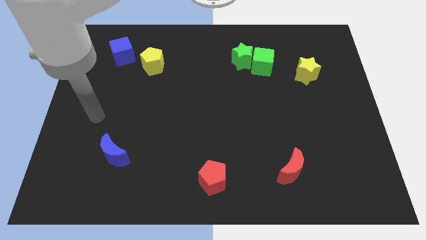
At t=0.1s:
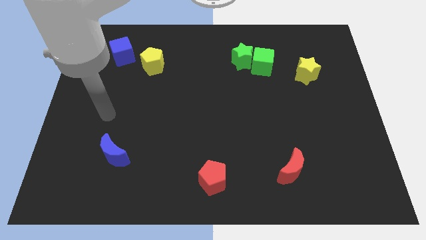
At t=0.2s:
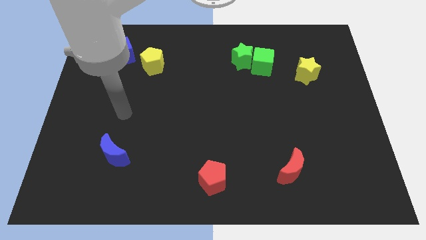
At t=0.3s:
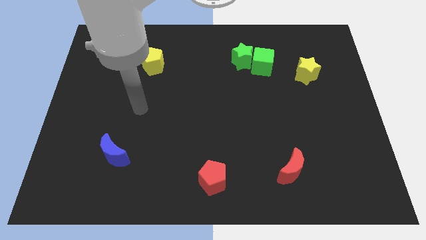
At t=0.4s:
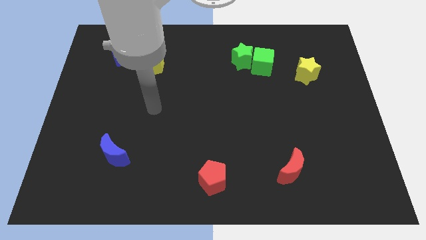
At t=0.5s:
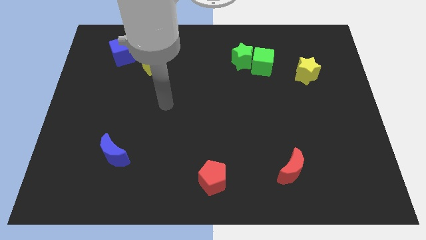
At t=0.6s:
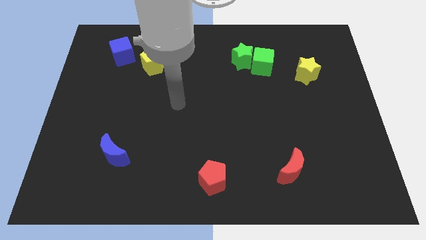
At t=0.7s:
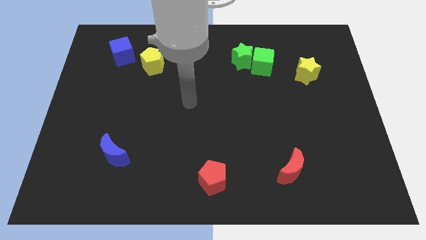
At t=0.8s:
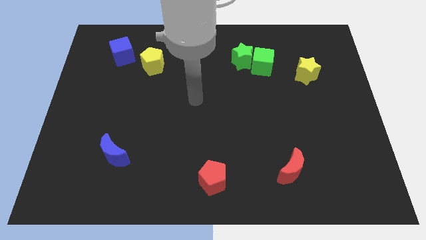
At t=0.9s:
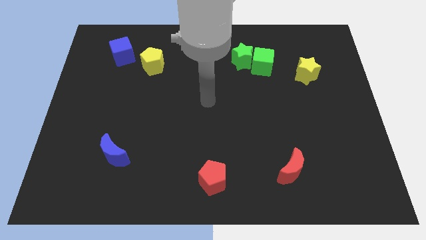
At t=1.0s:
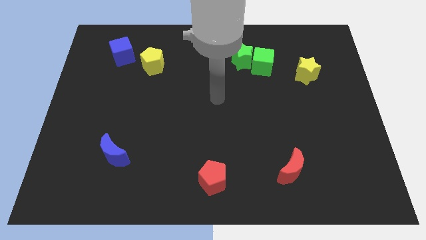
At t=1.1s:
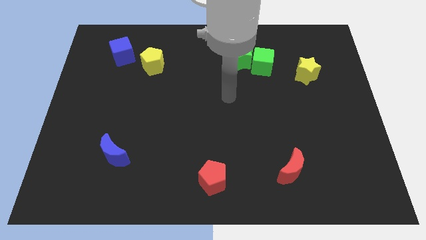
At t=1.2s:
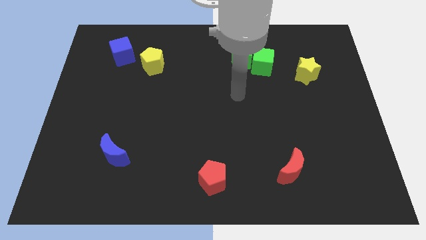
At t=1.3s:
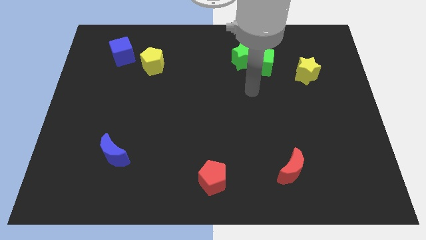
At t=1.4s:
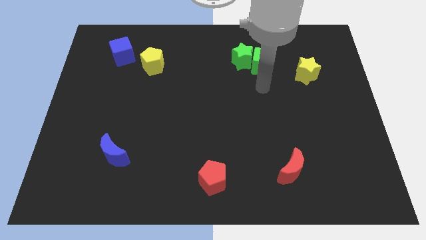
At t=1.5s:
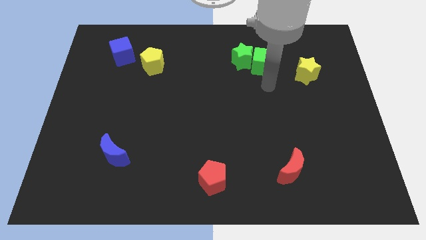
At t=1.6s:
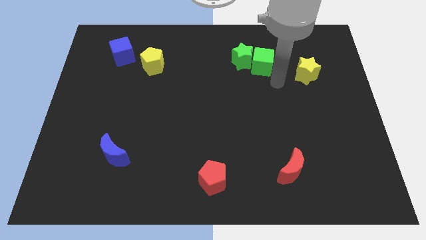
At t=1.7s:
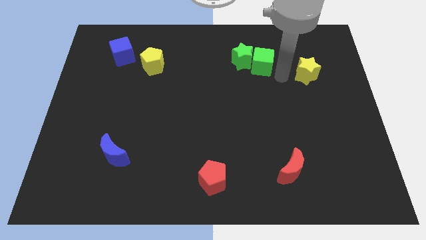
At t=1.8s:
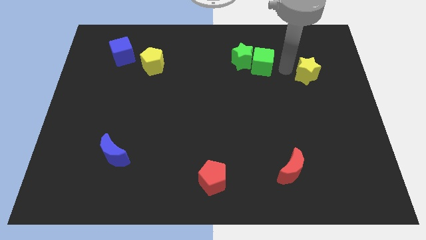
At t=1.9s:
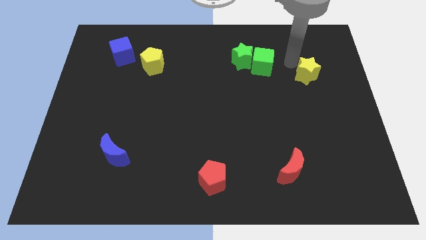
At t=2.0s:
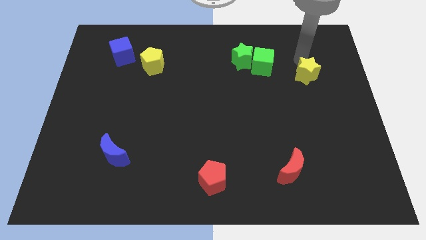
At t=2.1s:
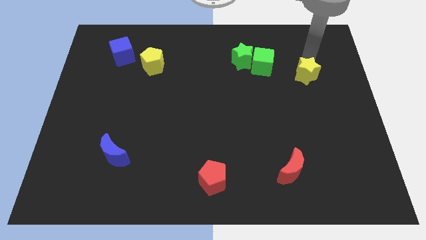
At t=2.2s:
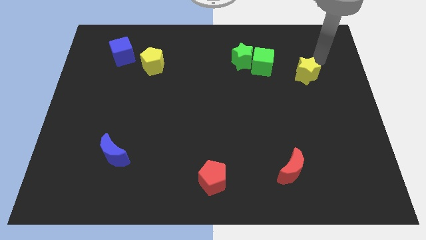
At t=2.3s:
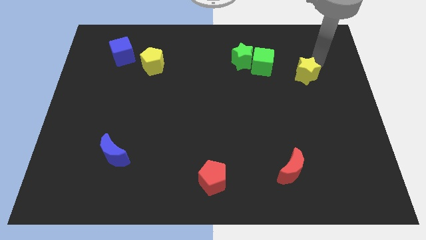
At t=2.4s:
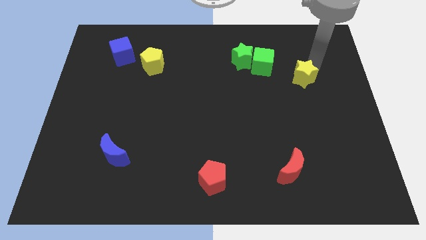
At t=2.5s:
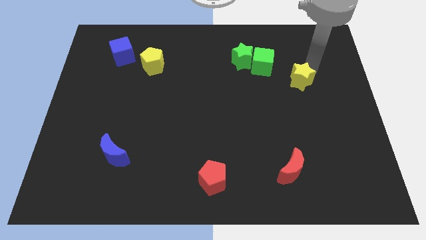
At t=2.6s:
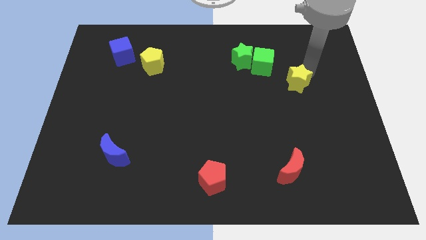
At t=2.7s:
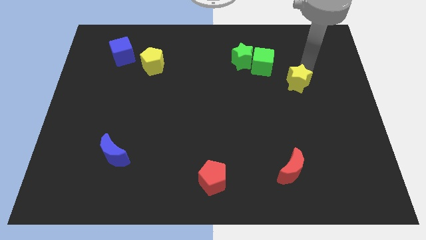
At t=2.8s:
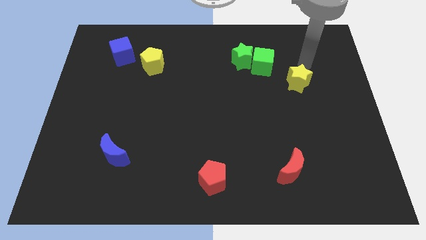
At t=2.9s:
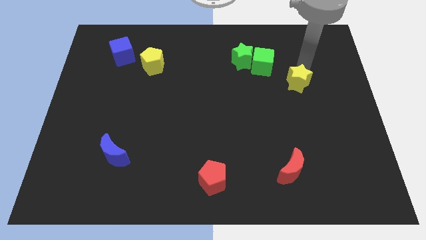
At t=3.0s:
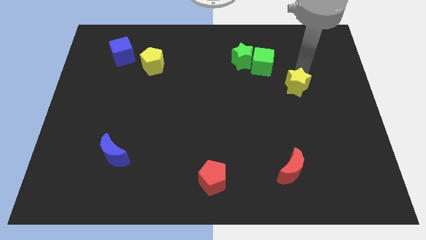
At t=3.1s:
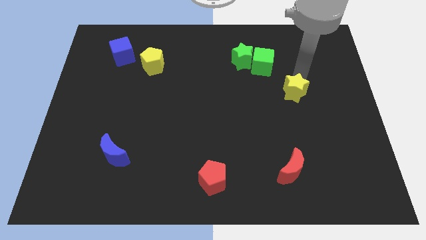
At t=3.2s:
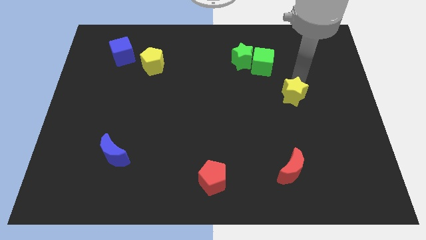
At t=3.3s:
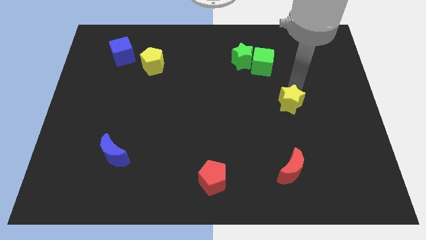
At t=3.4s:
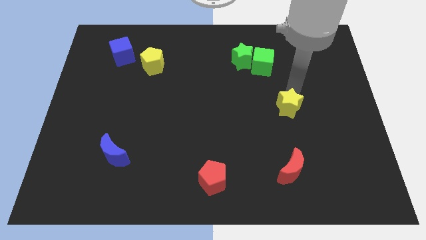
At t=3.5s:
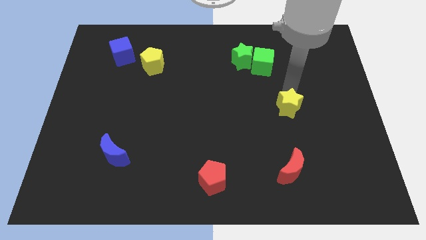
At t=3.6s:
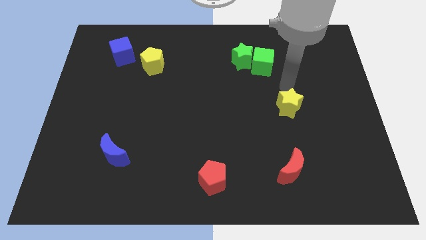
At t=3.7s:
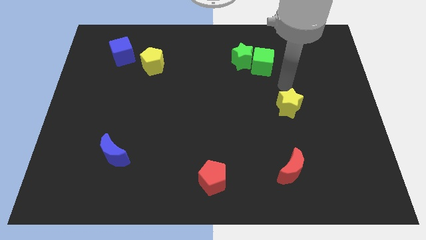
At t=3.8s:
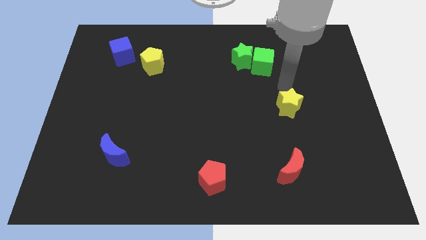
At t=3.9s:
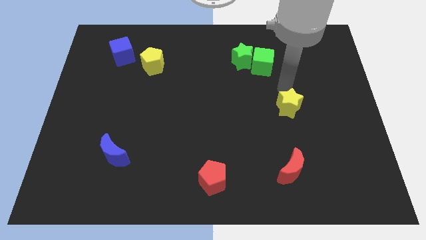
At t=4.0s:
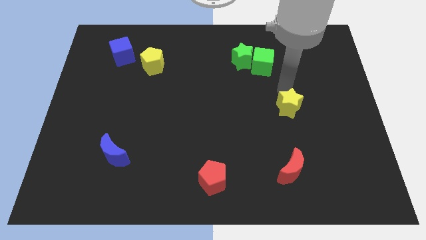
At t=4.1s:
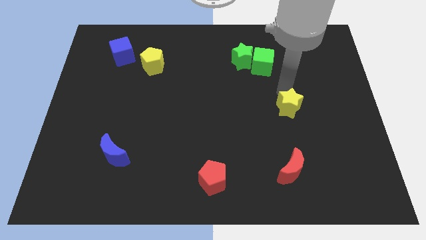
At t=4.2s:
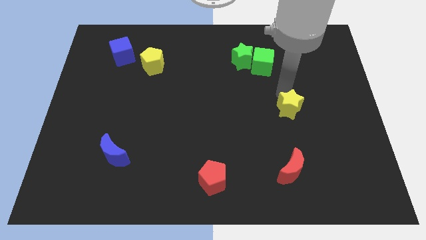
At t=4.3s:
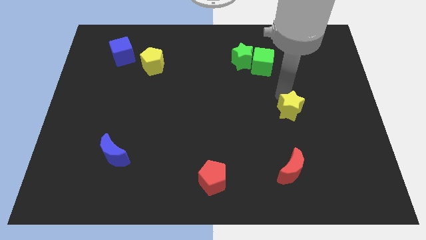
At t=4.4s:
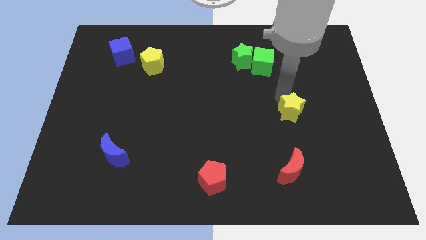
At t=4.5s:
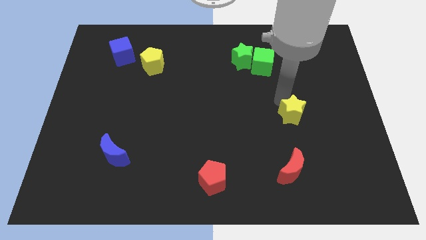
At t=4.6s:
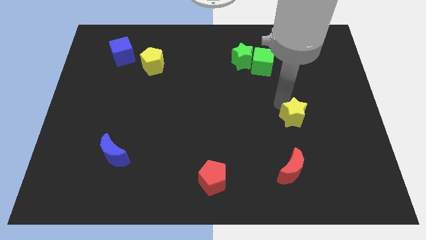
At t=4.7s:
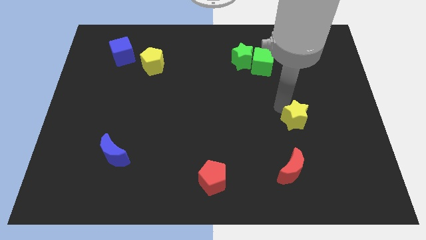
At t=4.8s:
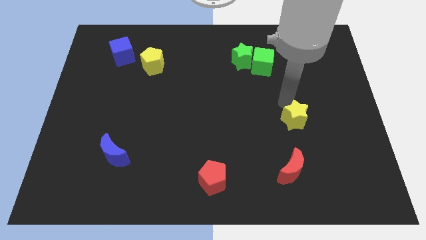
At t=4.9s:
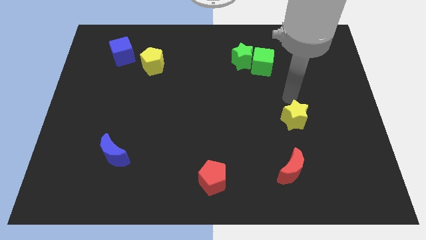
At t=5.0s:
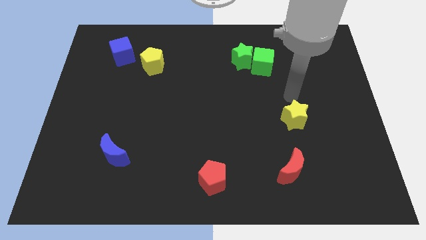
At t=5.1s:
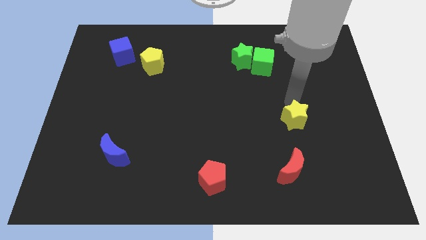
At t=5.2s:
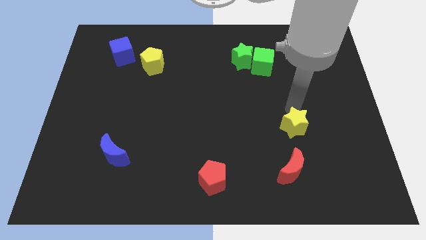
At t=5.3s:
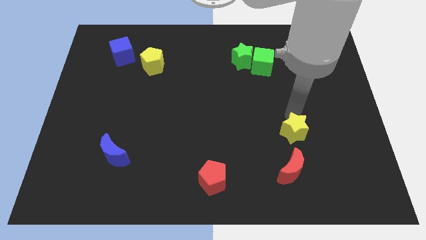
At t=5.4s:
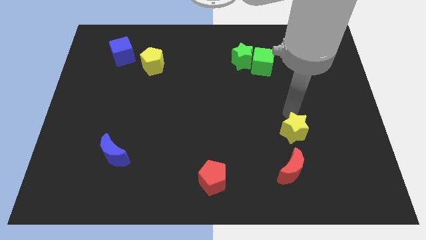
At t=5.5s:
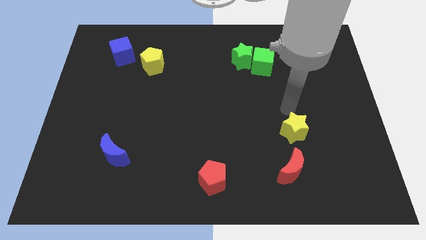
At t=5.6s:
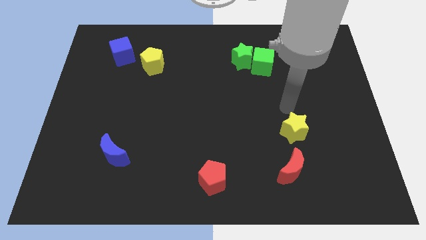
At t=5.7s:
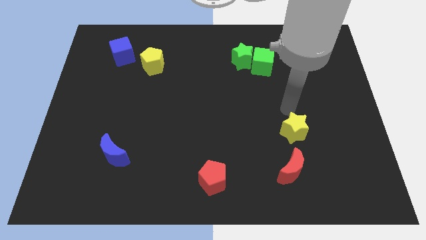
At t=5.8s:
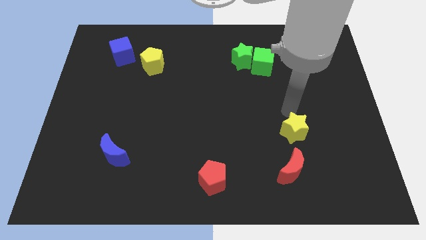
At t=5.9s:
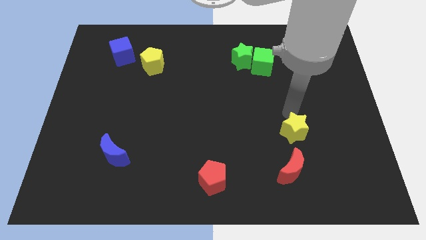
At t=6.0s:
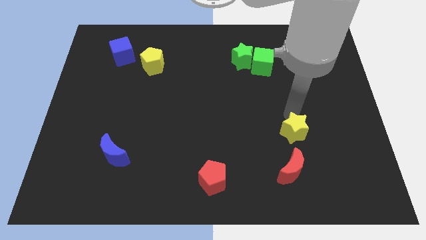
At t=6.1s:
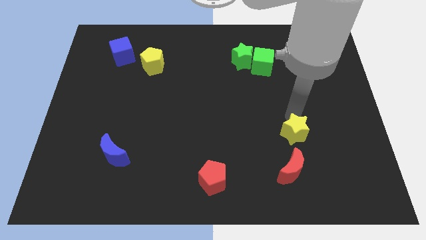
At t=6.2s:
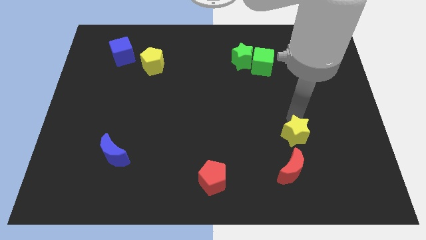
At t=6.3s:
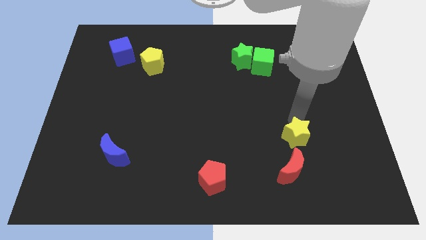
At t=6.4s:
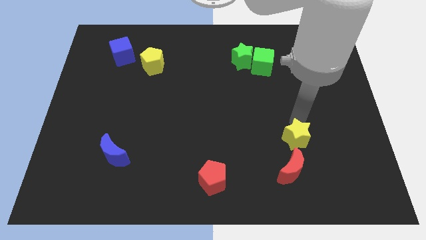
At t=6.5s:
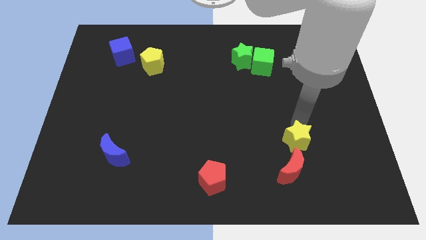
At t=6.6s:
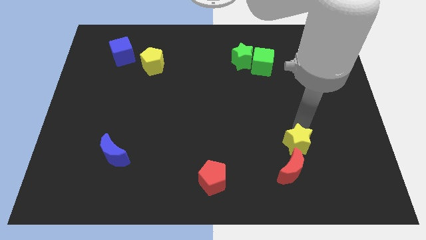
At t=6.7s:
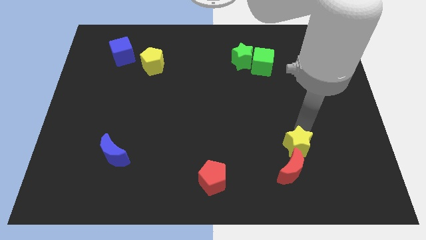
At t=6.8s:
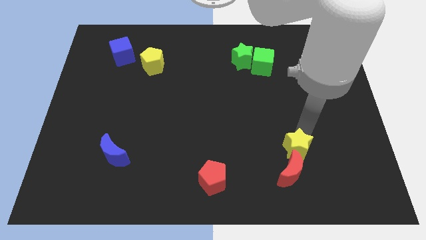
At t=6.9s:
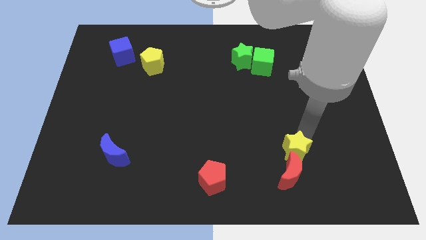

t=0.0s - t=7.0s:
slide the yellow star towards the red moon
